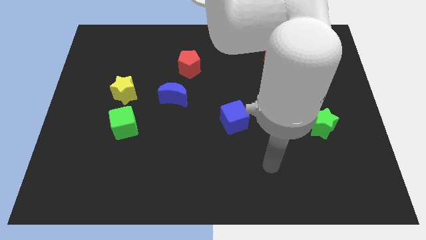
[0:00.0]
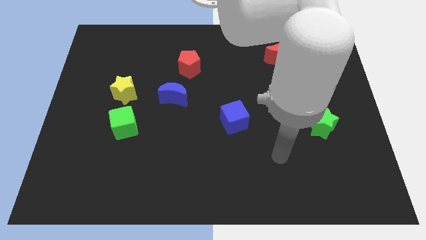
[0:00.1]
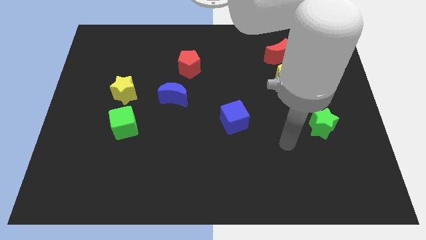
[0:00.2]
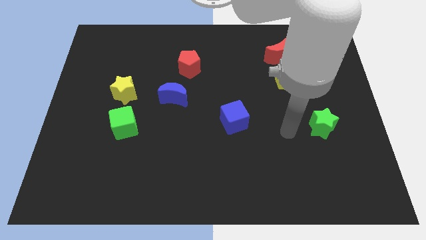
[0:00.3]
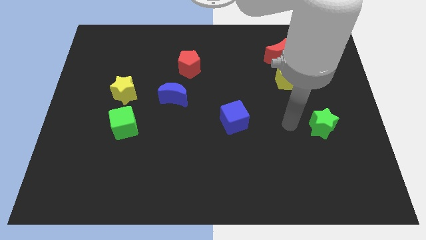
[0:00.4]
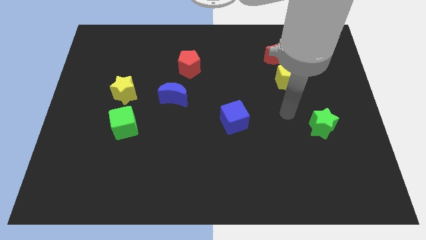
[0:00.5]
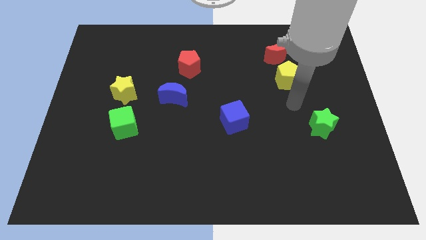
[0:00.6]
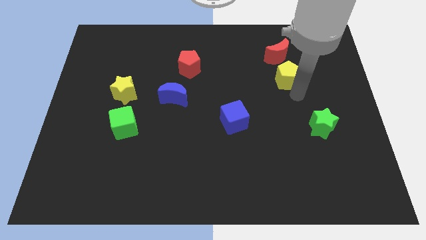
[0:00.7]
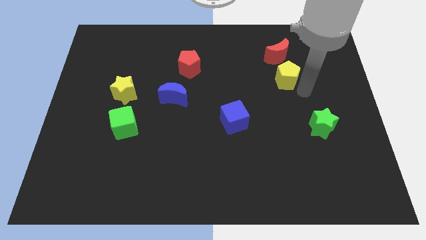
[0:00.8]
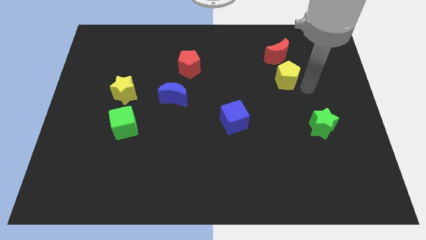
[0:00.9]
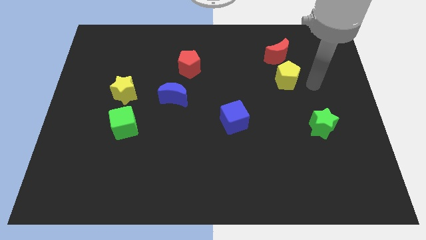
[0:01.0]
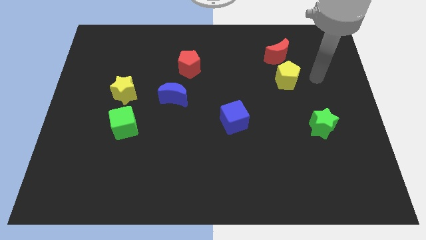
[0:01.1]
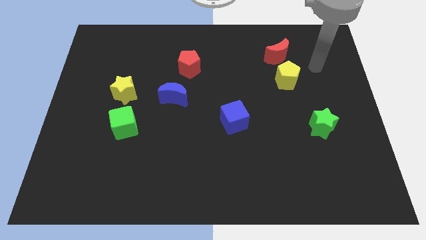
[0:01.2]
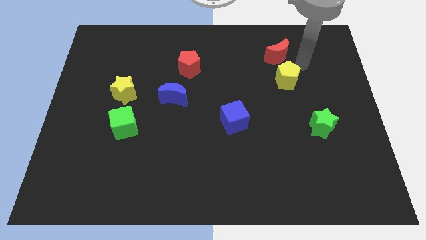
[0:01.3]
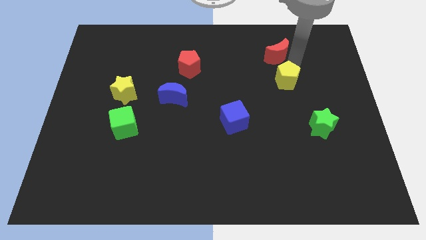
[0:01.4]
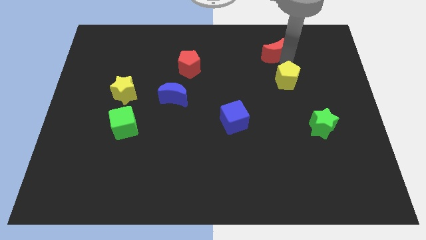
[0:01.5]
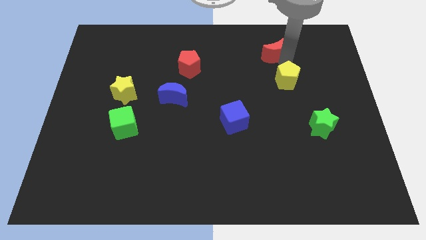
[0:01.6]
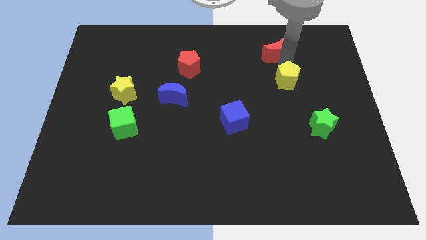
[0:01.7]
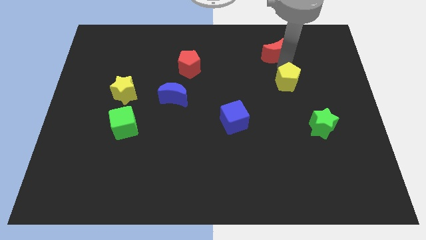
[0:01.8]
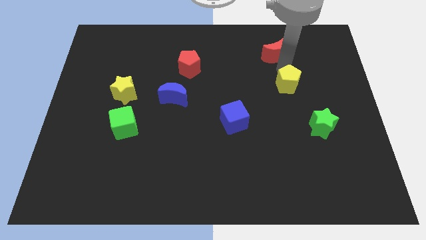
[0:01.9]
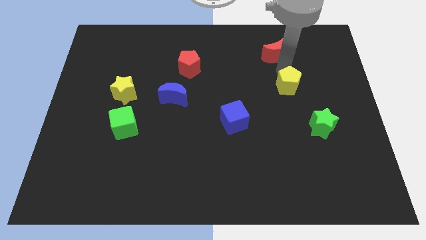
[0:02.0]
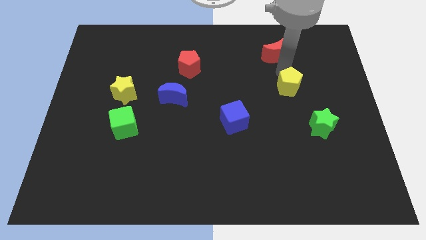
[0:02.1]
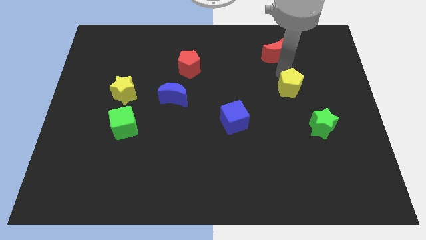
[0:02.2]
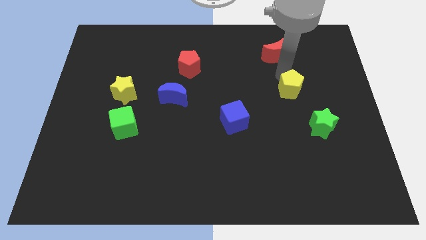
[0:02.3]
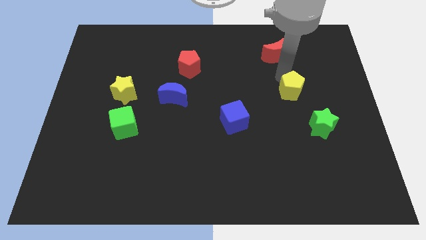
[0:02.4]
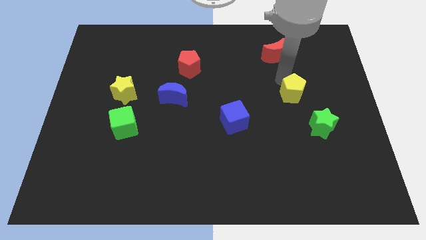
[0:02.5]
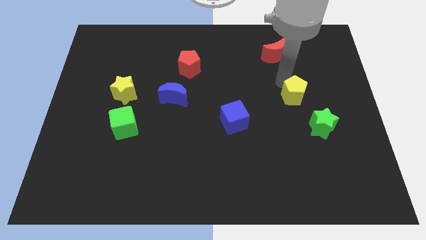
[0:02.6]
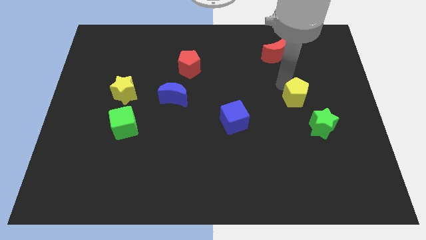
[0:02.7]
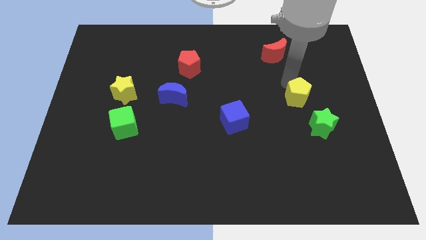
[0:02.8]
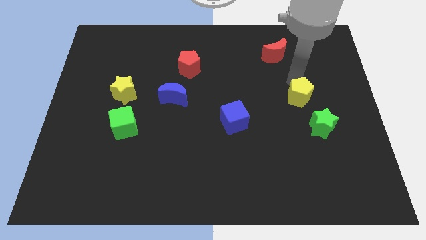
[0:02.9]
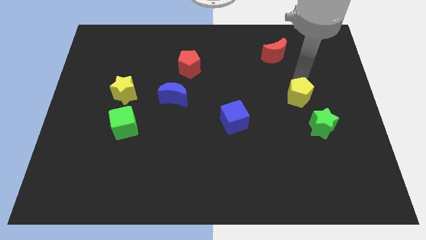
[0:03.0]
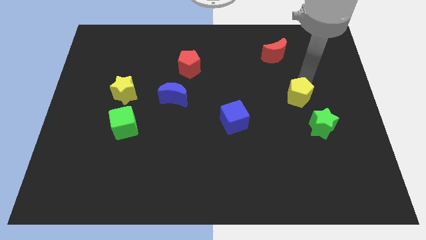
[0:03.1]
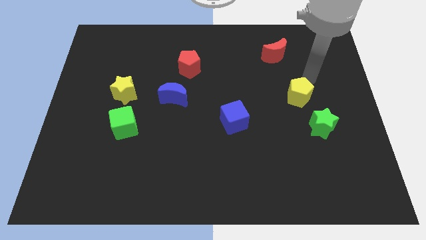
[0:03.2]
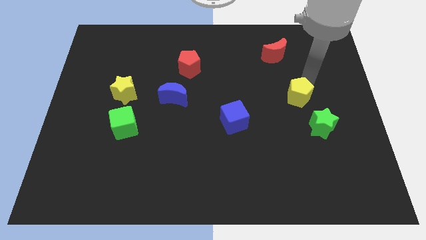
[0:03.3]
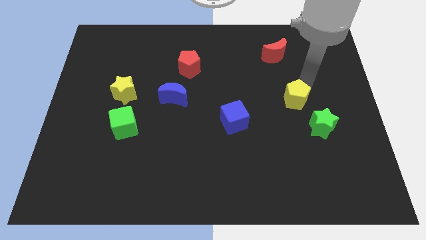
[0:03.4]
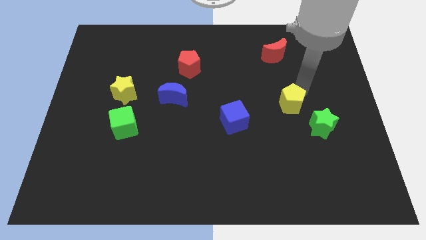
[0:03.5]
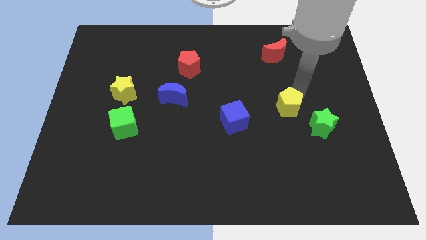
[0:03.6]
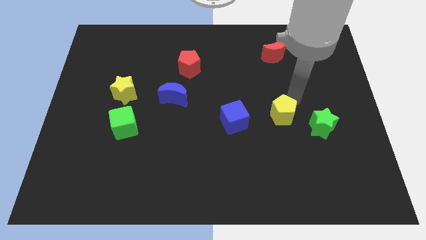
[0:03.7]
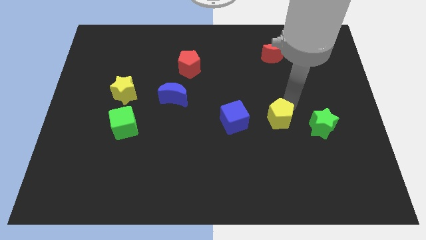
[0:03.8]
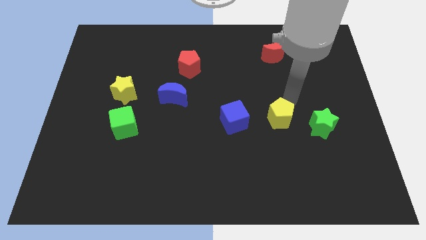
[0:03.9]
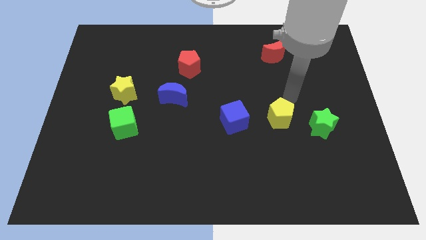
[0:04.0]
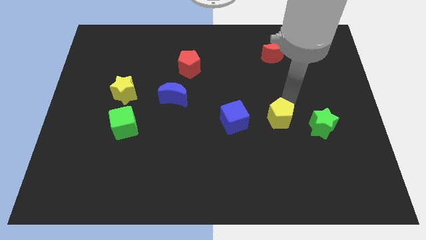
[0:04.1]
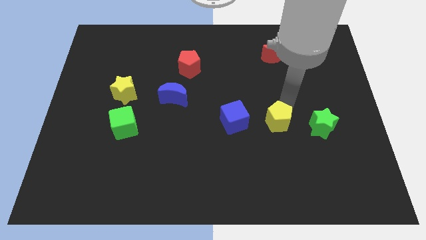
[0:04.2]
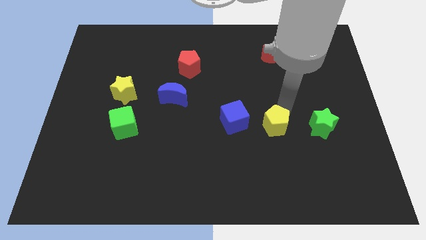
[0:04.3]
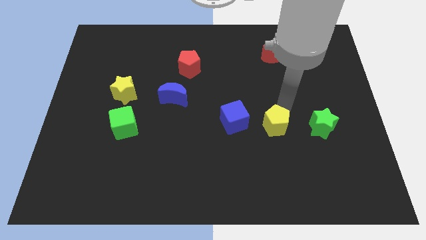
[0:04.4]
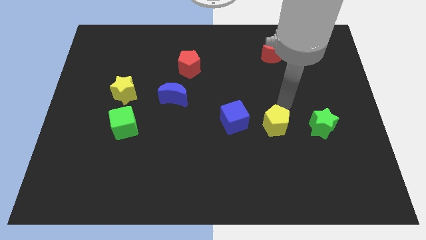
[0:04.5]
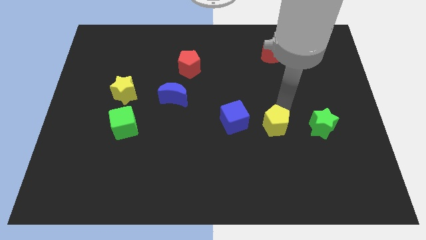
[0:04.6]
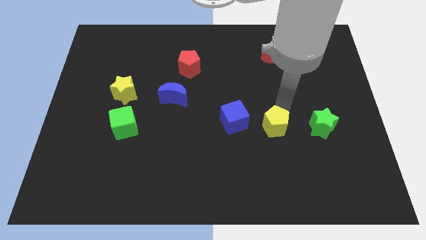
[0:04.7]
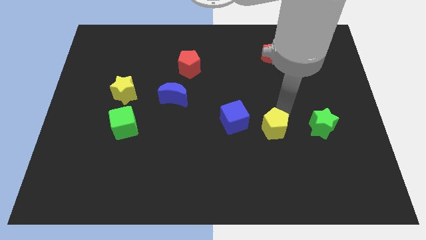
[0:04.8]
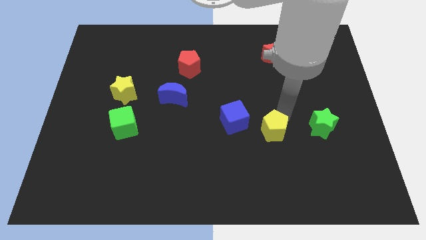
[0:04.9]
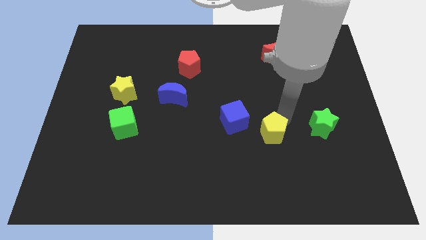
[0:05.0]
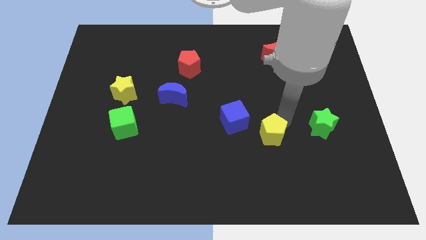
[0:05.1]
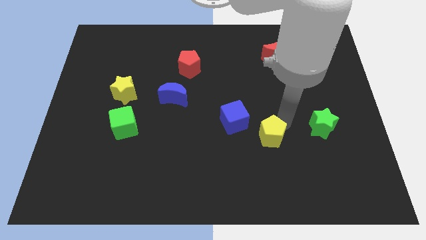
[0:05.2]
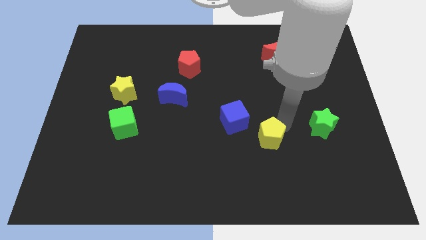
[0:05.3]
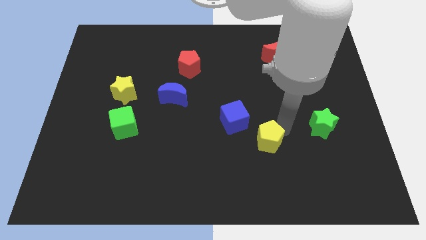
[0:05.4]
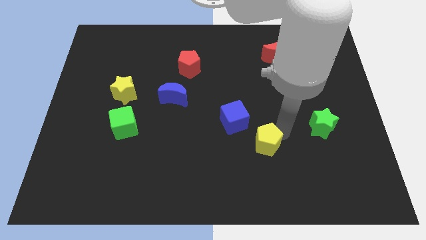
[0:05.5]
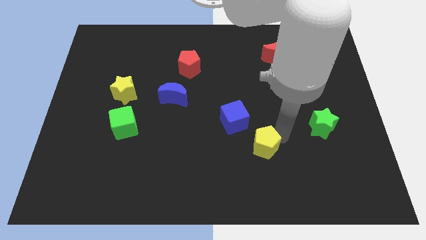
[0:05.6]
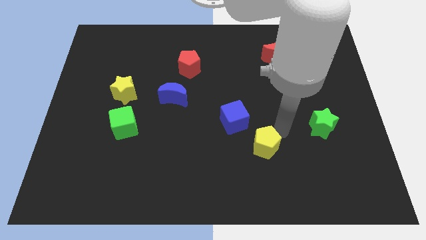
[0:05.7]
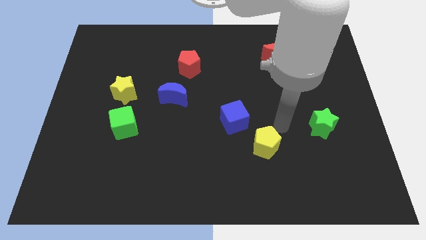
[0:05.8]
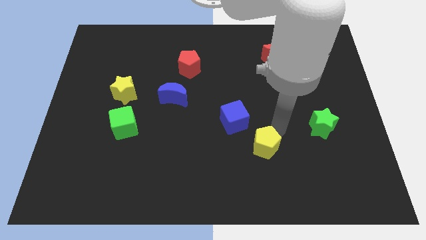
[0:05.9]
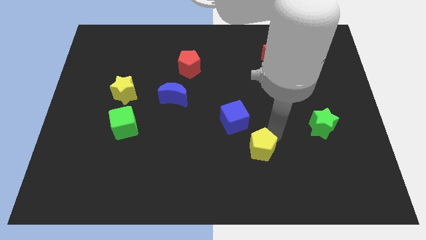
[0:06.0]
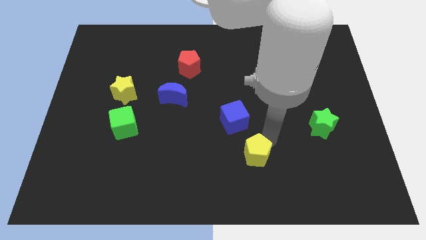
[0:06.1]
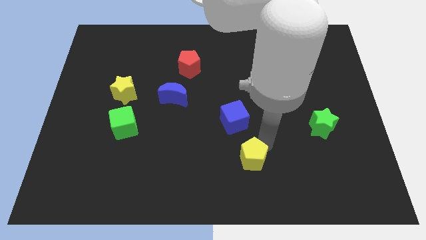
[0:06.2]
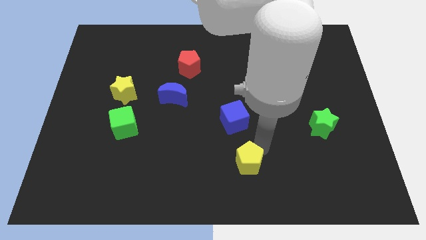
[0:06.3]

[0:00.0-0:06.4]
move the yellow pentagon to the bottom side

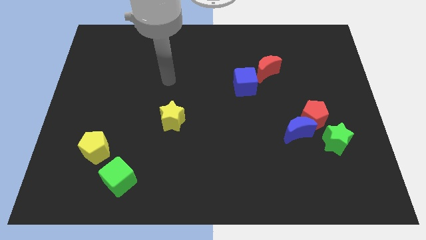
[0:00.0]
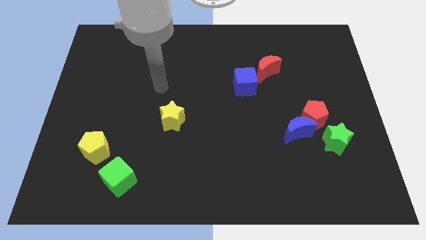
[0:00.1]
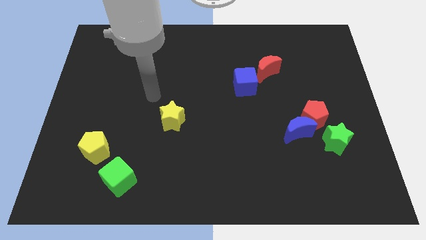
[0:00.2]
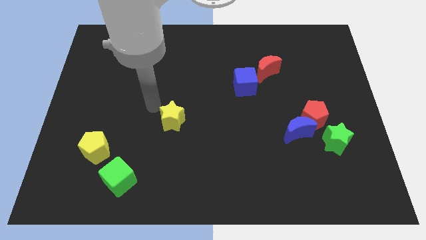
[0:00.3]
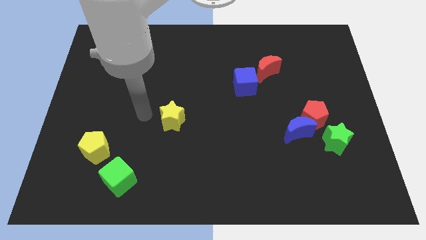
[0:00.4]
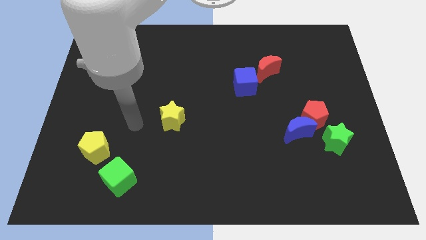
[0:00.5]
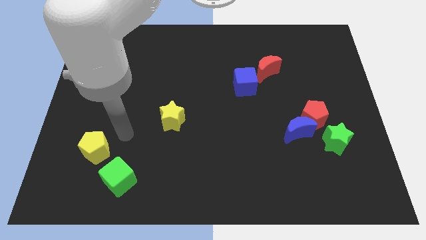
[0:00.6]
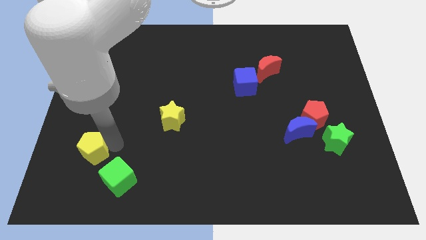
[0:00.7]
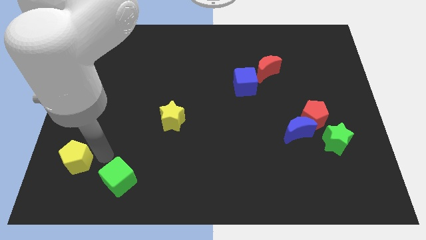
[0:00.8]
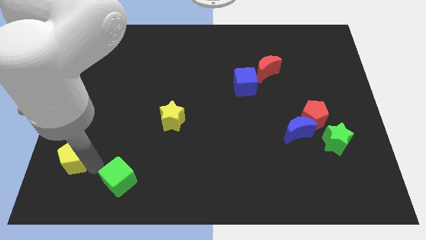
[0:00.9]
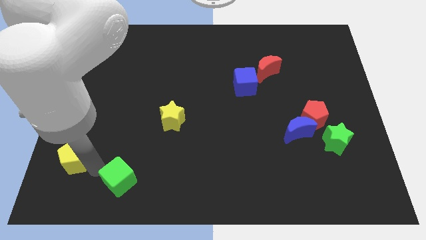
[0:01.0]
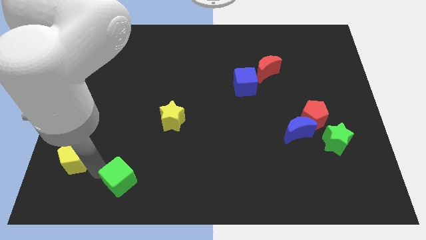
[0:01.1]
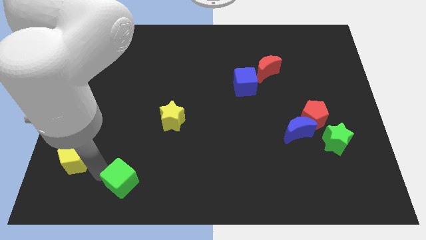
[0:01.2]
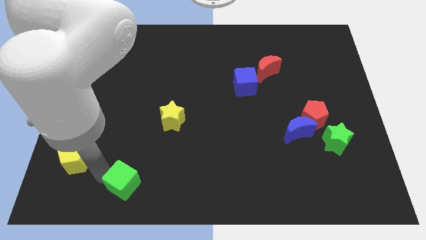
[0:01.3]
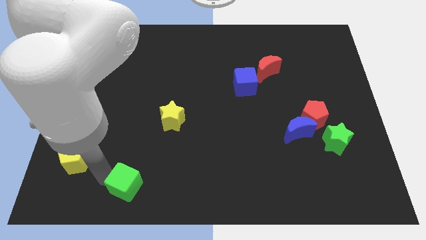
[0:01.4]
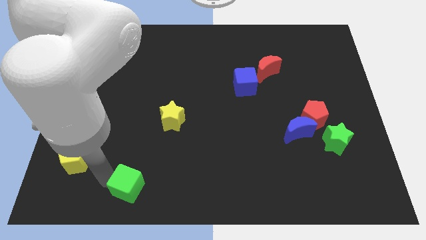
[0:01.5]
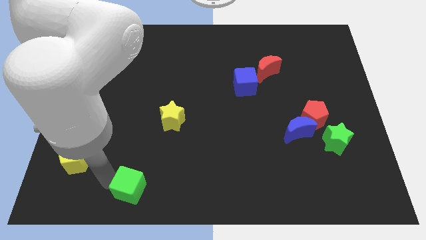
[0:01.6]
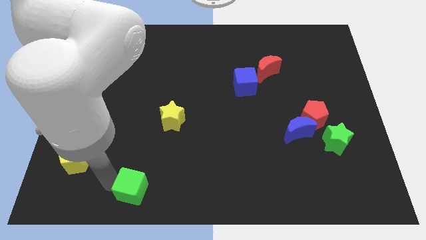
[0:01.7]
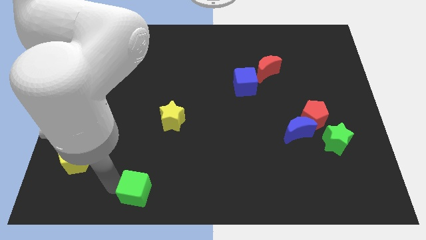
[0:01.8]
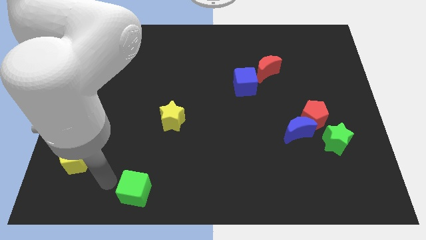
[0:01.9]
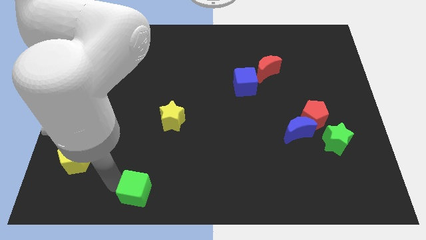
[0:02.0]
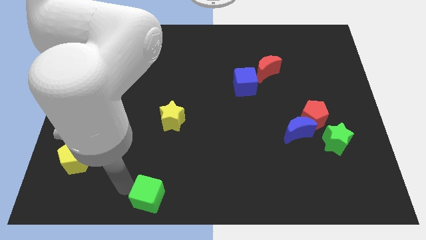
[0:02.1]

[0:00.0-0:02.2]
push the green cube to the bottom side
